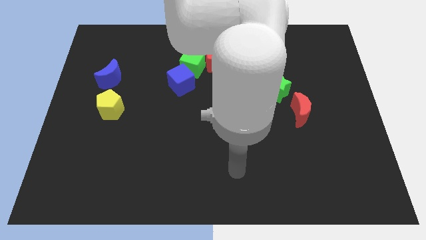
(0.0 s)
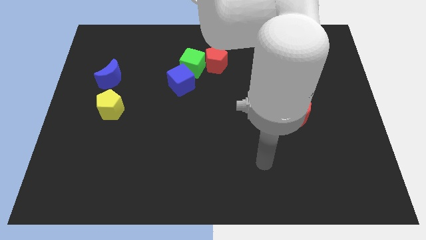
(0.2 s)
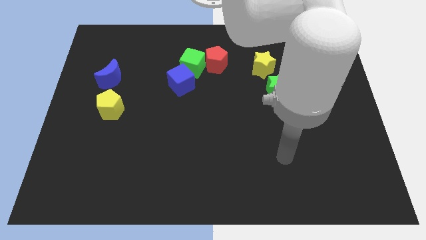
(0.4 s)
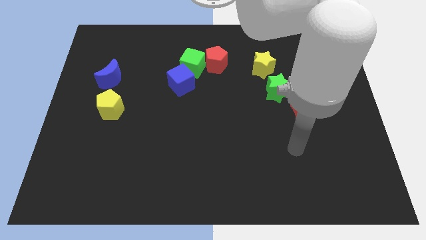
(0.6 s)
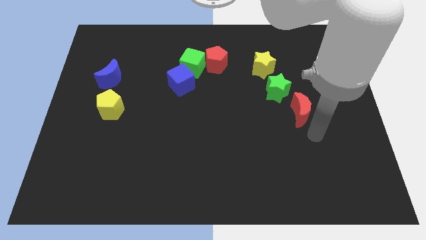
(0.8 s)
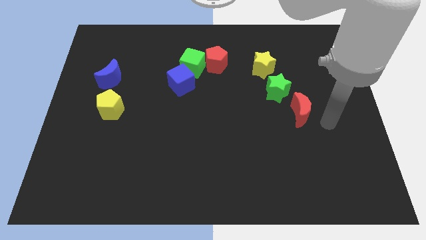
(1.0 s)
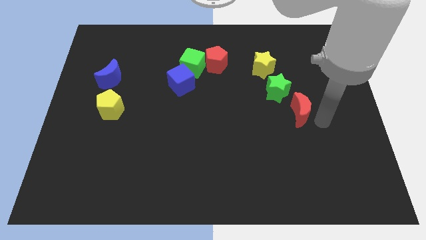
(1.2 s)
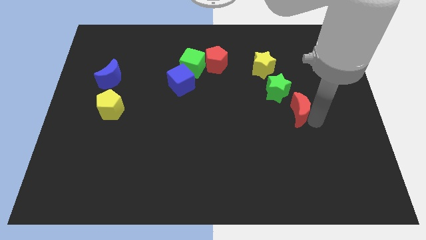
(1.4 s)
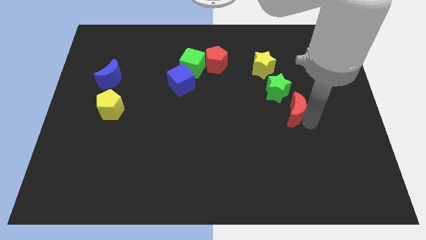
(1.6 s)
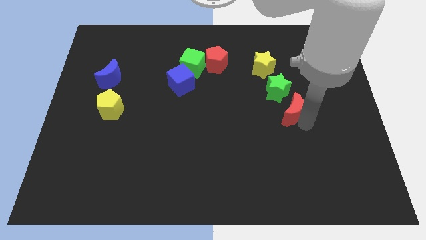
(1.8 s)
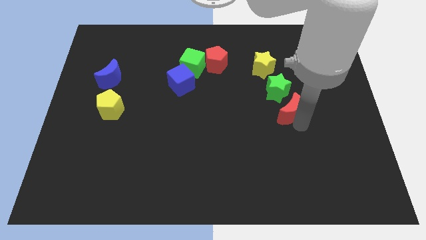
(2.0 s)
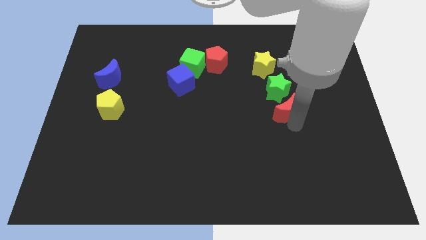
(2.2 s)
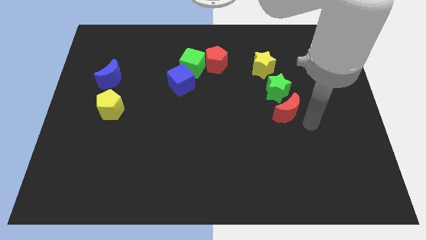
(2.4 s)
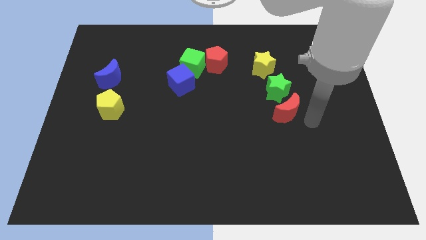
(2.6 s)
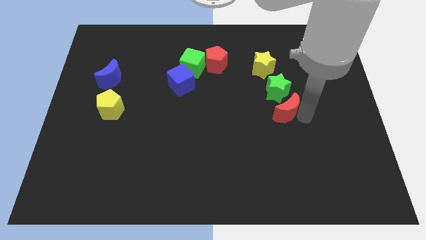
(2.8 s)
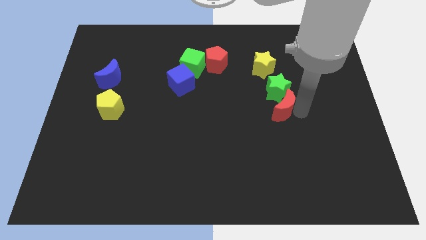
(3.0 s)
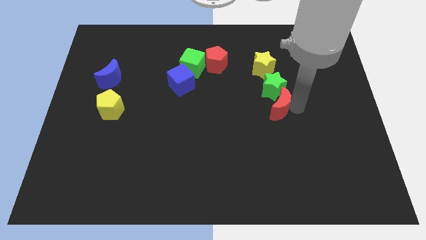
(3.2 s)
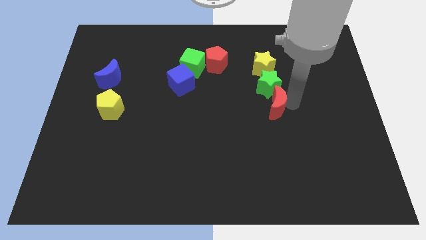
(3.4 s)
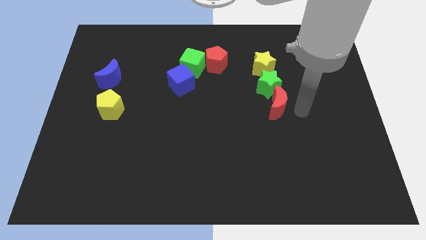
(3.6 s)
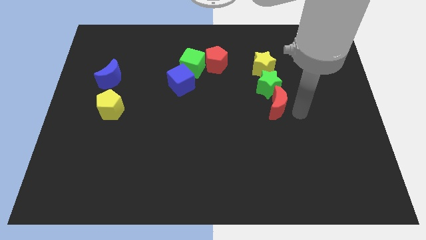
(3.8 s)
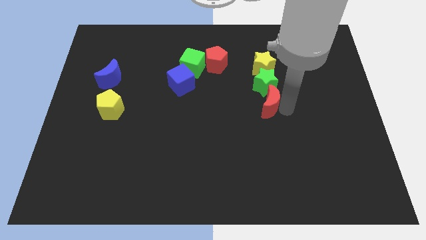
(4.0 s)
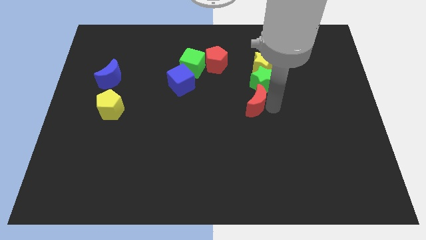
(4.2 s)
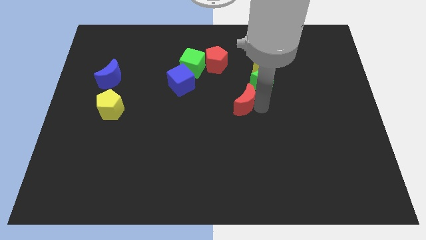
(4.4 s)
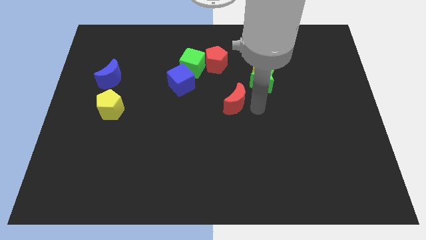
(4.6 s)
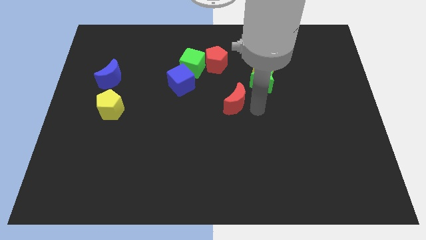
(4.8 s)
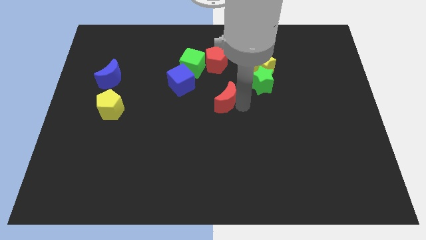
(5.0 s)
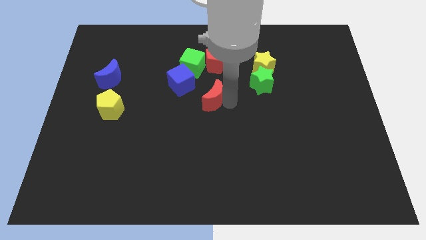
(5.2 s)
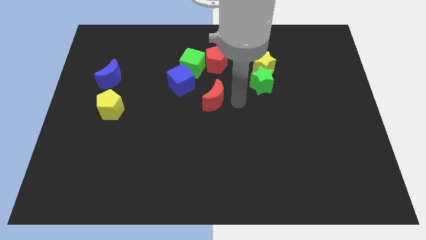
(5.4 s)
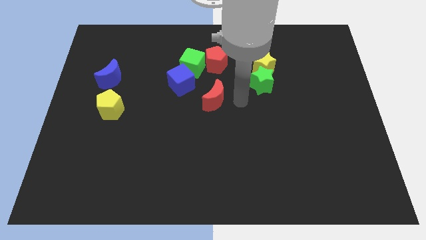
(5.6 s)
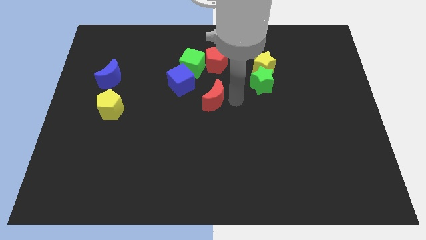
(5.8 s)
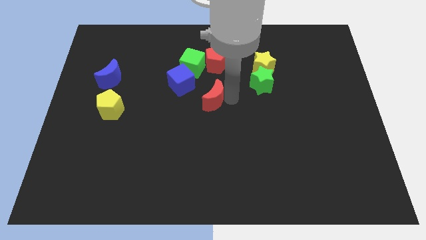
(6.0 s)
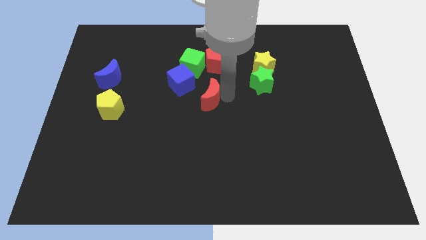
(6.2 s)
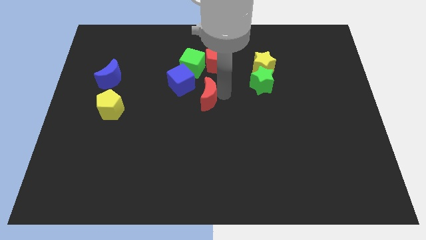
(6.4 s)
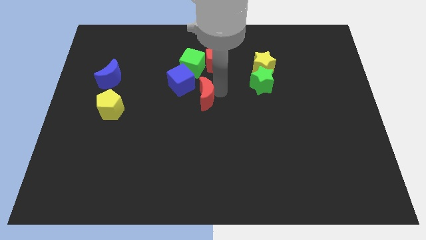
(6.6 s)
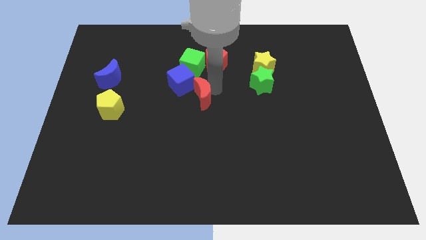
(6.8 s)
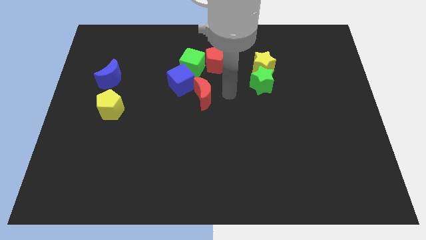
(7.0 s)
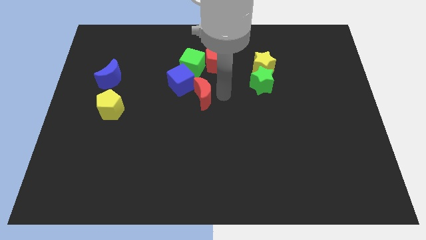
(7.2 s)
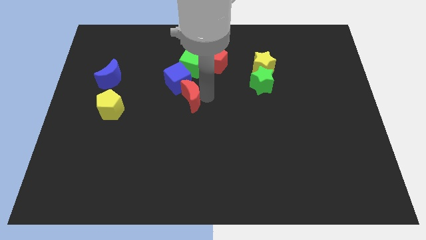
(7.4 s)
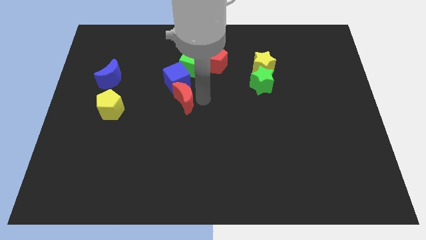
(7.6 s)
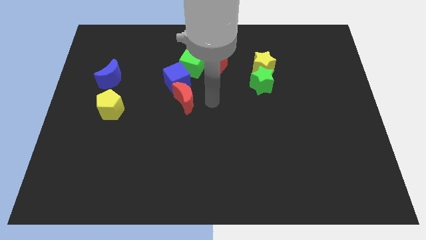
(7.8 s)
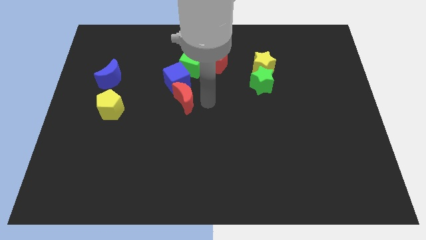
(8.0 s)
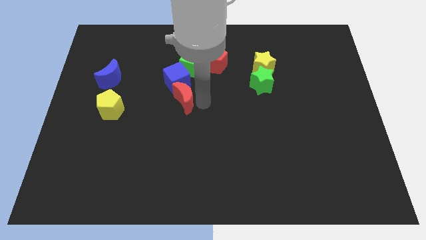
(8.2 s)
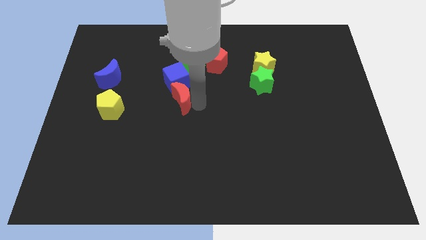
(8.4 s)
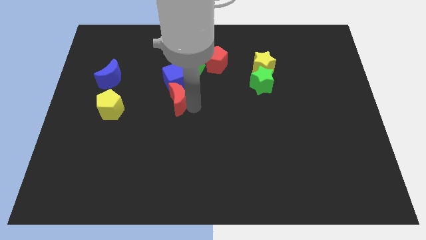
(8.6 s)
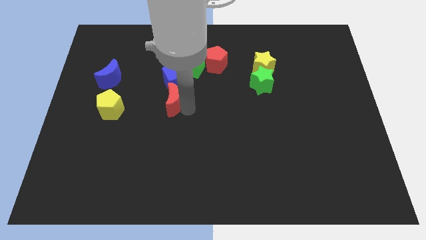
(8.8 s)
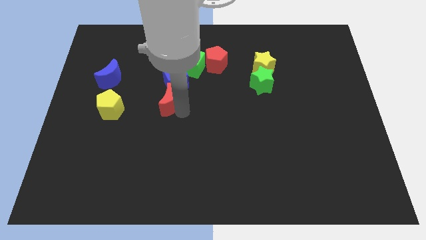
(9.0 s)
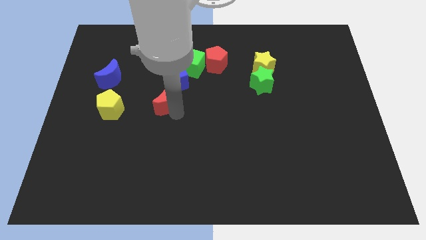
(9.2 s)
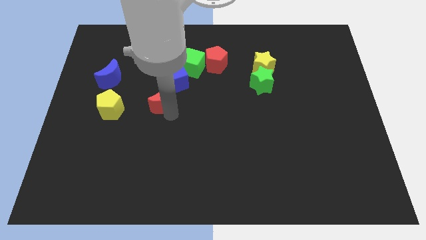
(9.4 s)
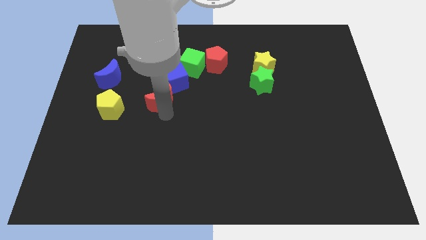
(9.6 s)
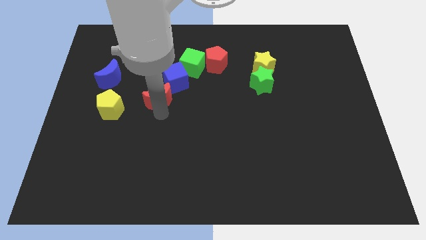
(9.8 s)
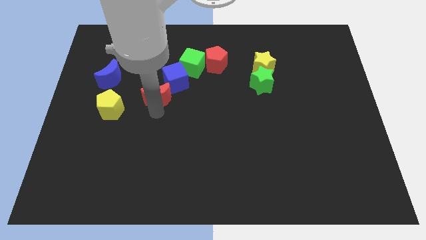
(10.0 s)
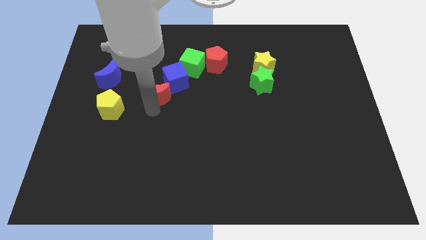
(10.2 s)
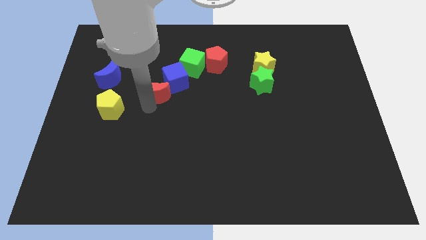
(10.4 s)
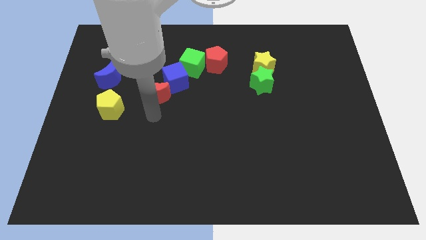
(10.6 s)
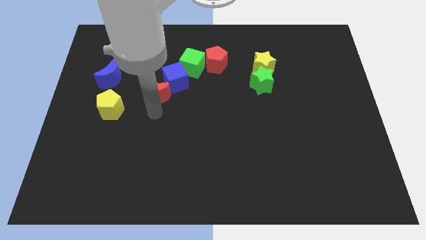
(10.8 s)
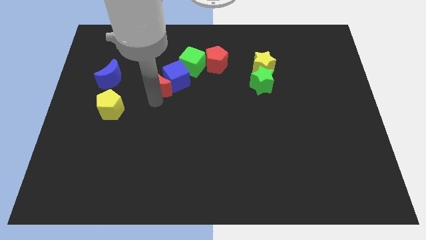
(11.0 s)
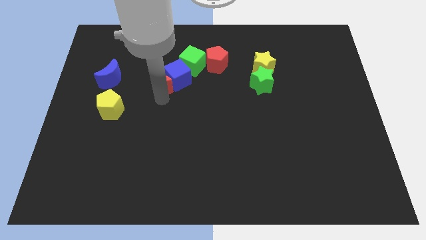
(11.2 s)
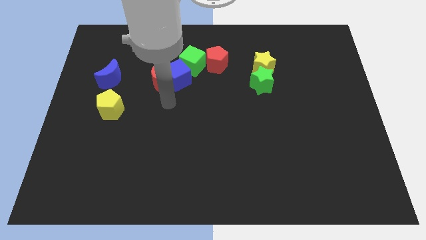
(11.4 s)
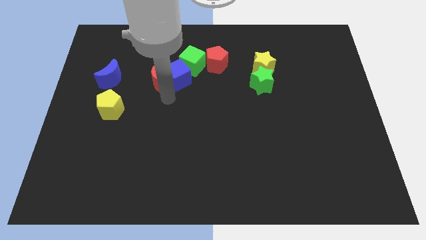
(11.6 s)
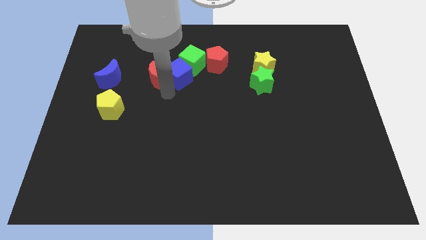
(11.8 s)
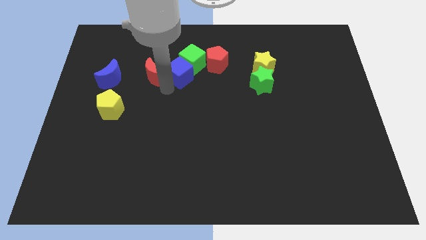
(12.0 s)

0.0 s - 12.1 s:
put the red moon to the left side of the green cube

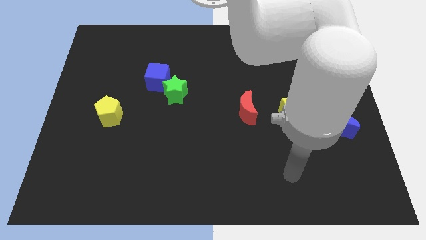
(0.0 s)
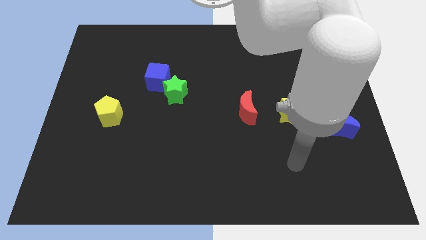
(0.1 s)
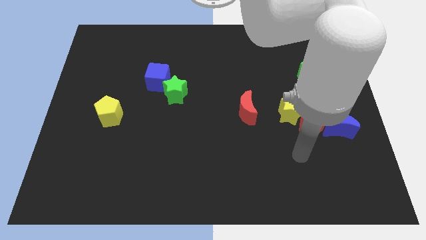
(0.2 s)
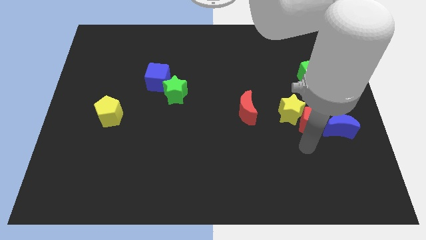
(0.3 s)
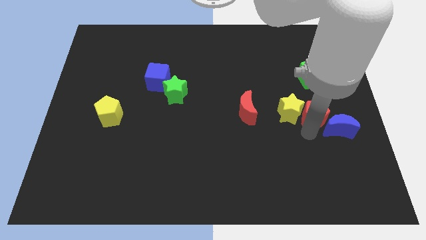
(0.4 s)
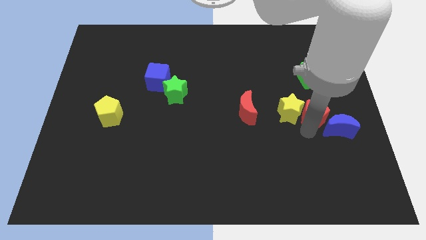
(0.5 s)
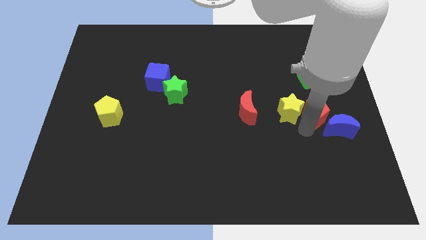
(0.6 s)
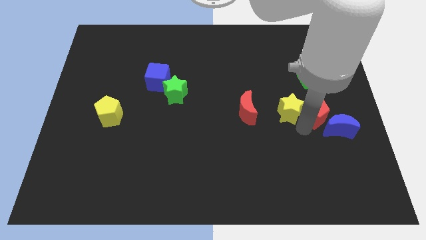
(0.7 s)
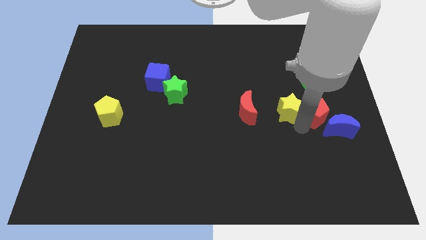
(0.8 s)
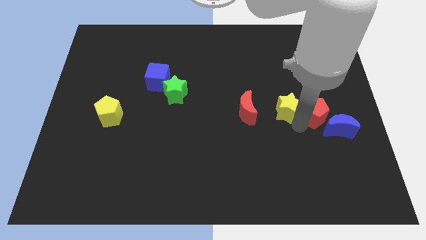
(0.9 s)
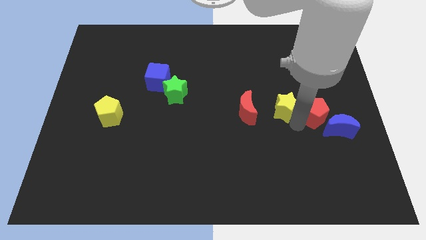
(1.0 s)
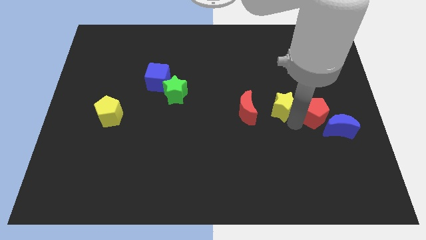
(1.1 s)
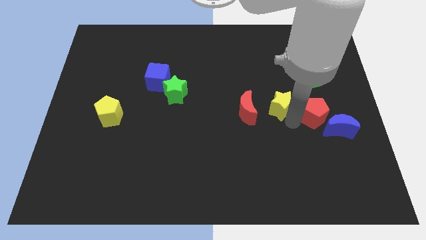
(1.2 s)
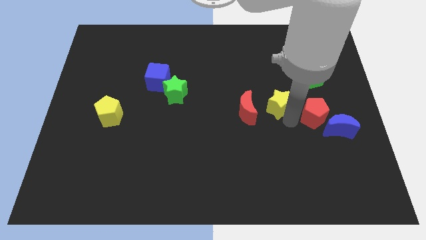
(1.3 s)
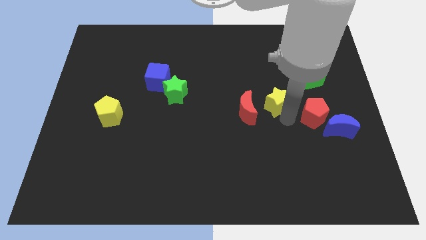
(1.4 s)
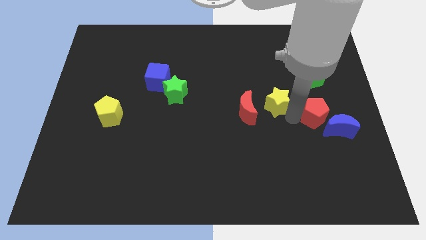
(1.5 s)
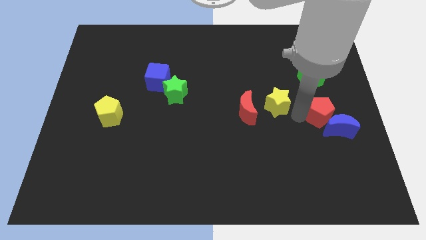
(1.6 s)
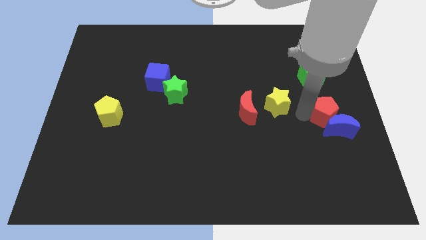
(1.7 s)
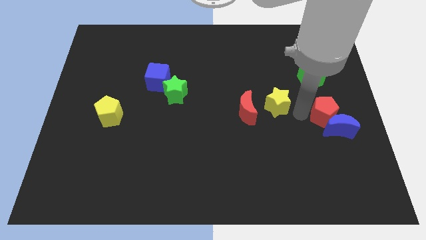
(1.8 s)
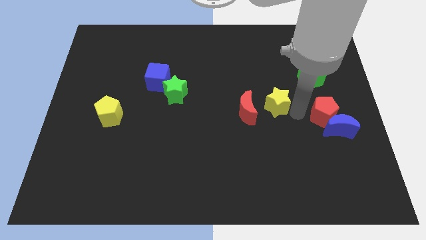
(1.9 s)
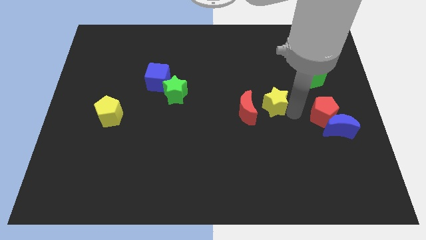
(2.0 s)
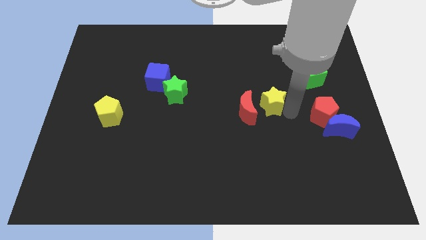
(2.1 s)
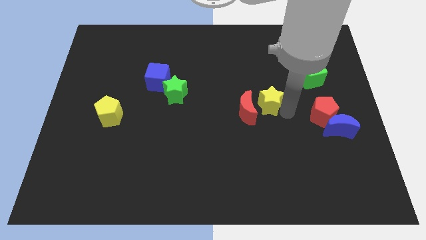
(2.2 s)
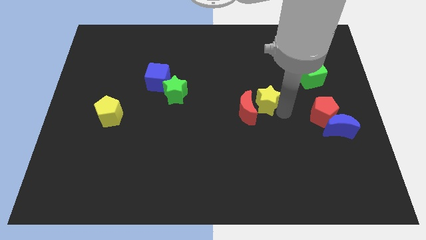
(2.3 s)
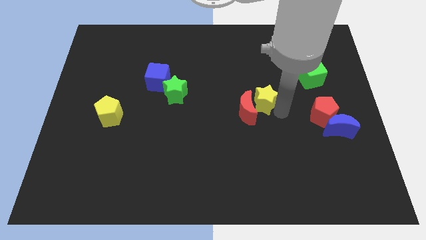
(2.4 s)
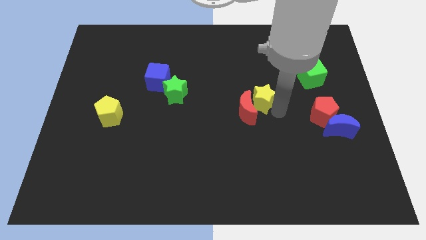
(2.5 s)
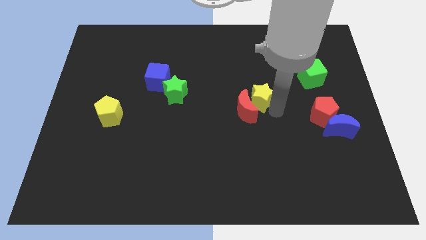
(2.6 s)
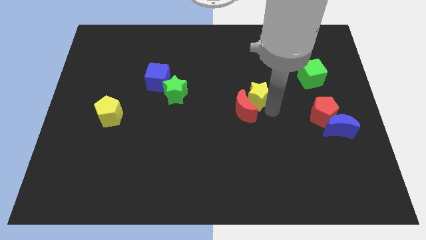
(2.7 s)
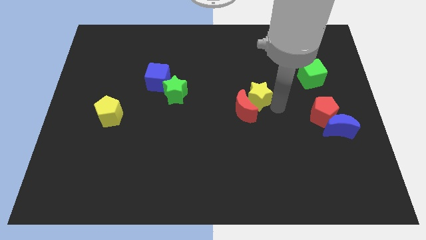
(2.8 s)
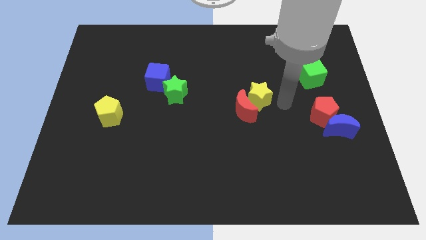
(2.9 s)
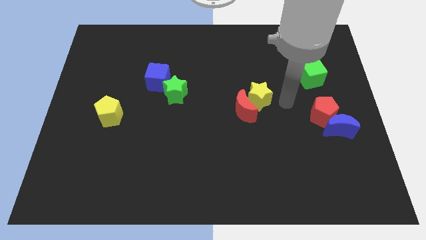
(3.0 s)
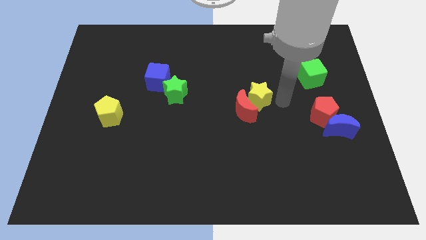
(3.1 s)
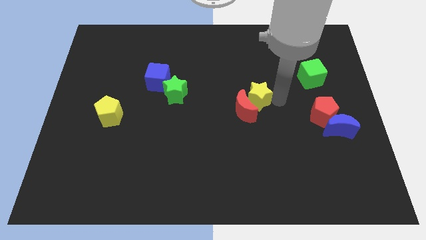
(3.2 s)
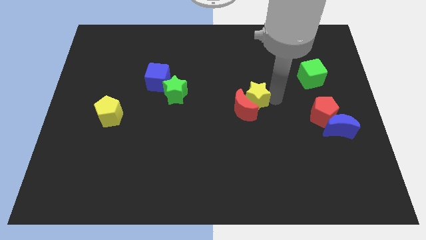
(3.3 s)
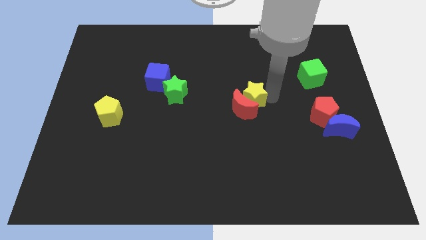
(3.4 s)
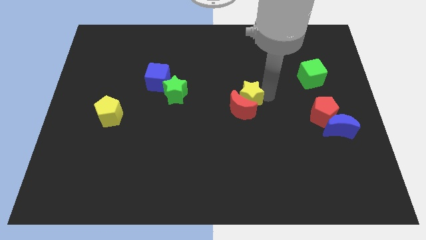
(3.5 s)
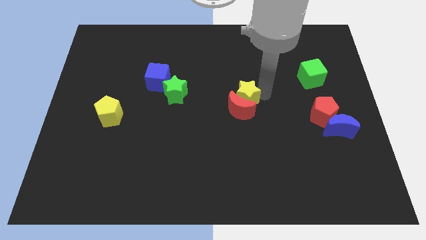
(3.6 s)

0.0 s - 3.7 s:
put the yellow star to the top left of the red moon
